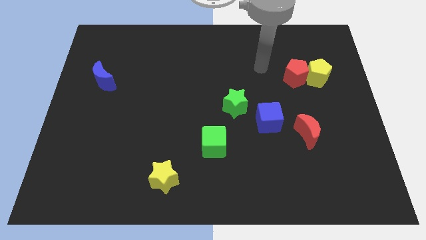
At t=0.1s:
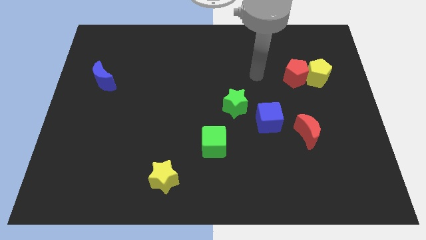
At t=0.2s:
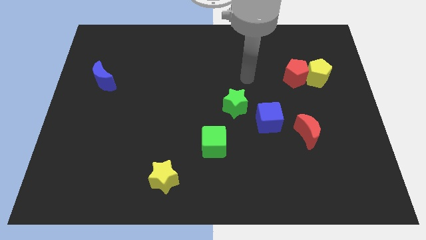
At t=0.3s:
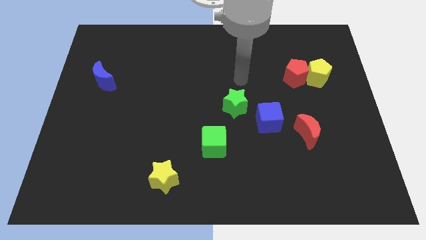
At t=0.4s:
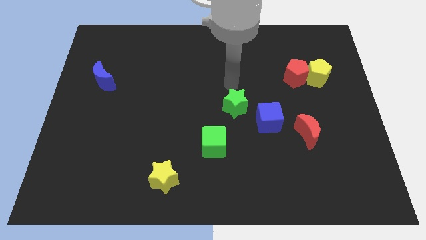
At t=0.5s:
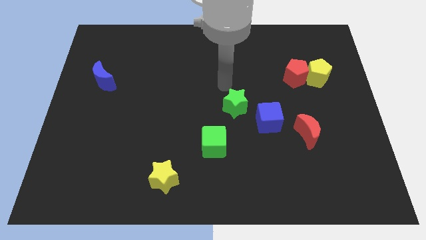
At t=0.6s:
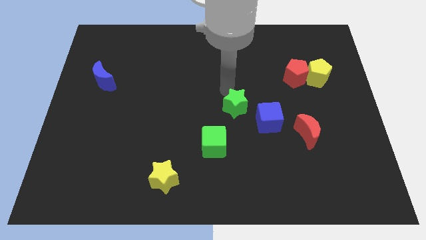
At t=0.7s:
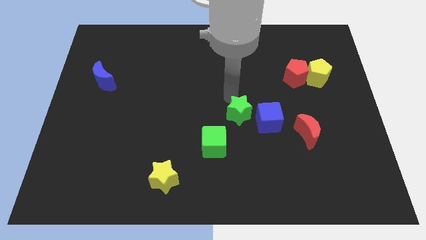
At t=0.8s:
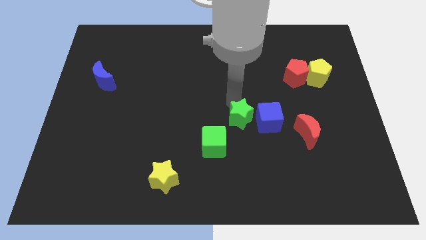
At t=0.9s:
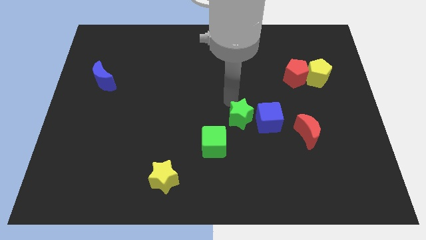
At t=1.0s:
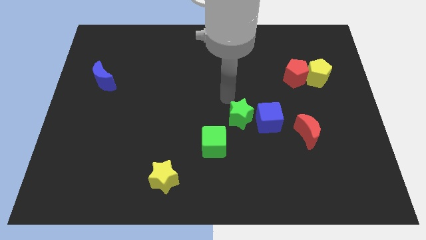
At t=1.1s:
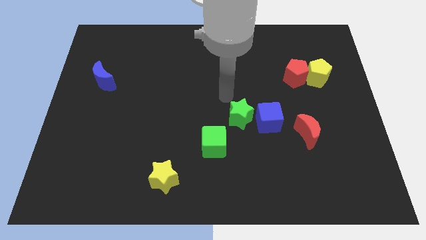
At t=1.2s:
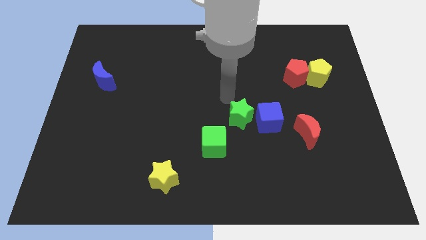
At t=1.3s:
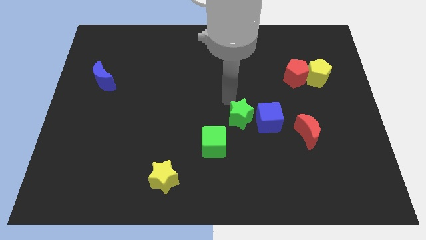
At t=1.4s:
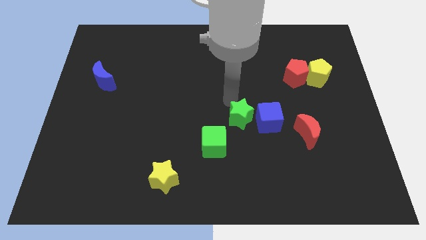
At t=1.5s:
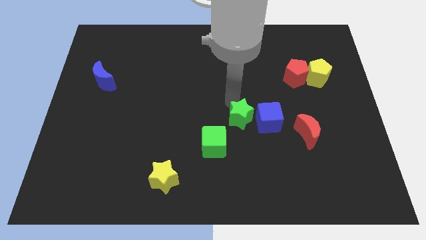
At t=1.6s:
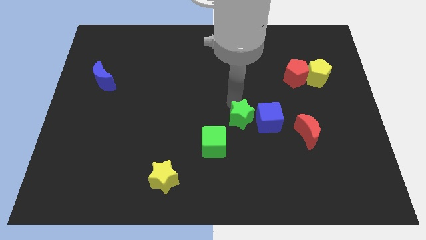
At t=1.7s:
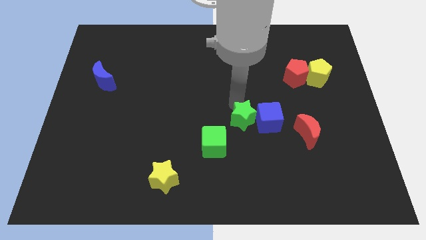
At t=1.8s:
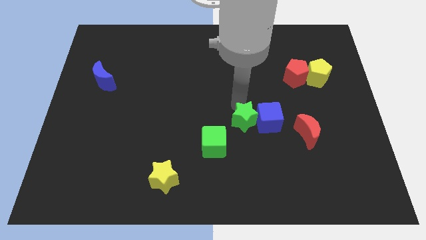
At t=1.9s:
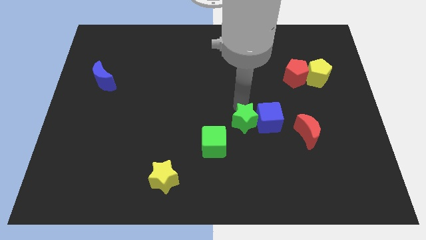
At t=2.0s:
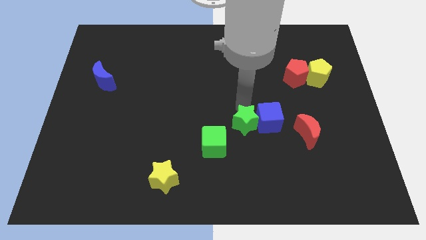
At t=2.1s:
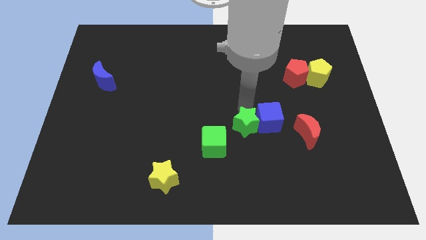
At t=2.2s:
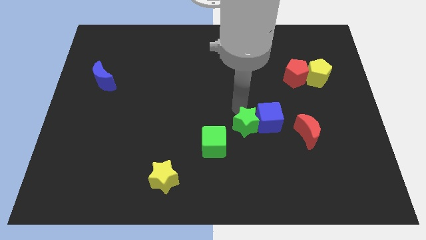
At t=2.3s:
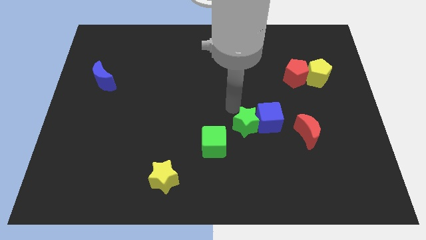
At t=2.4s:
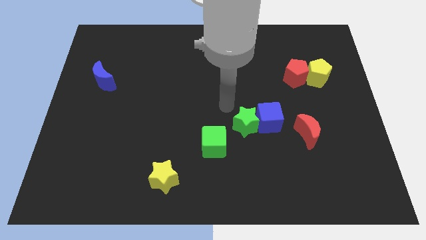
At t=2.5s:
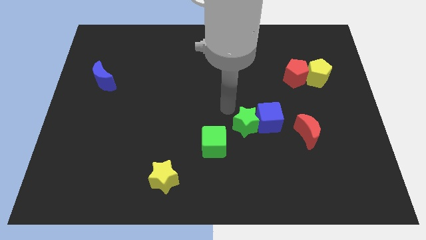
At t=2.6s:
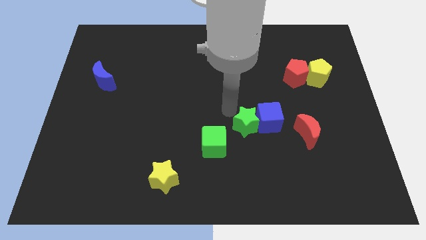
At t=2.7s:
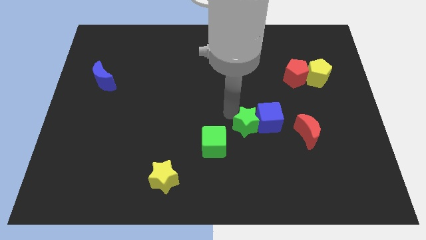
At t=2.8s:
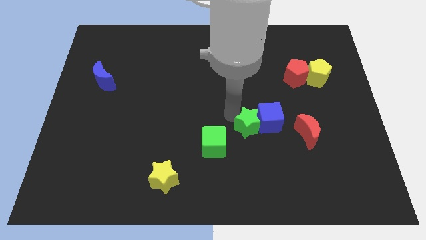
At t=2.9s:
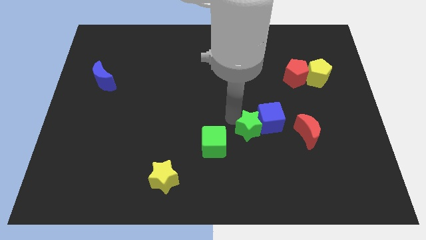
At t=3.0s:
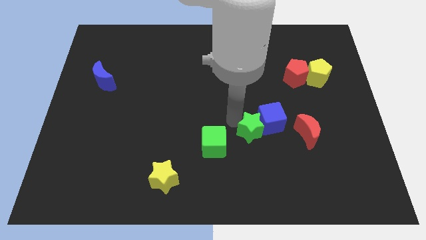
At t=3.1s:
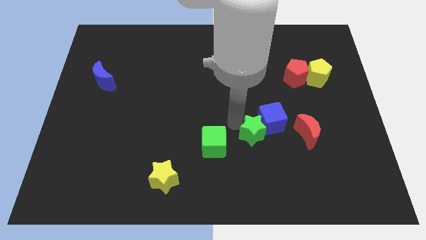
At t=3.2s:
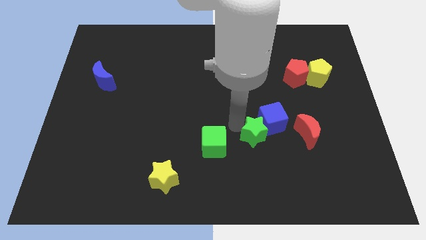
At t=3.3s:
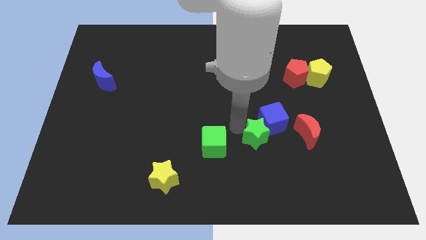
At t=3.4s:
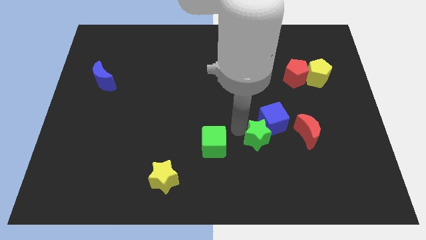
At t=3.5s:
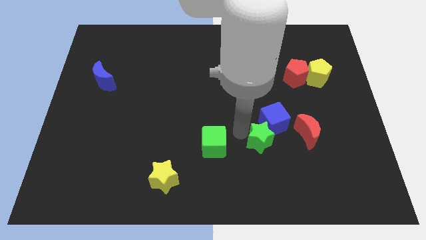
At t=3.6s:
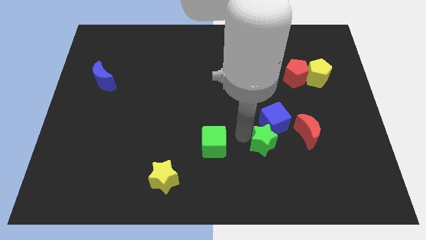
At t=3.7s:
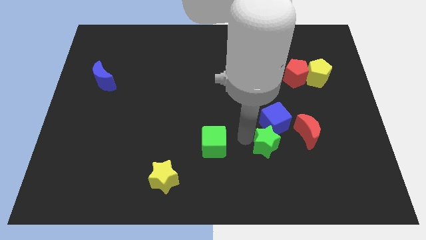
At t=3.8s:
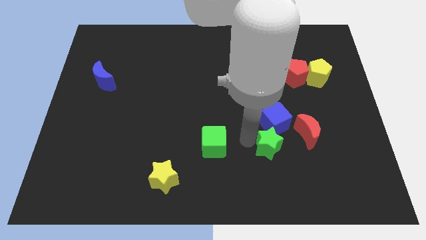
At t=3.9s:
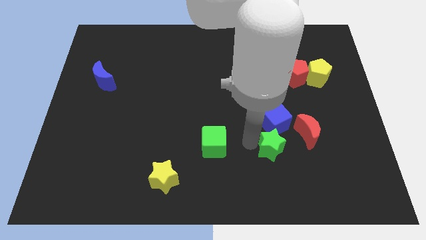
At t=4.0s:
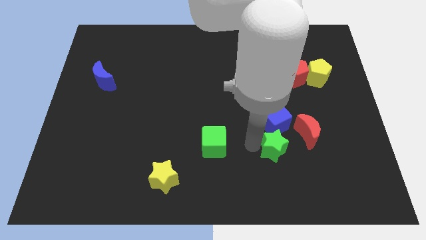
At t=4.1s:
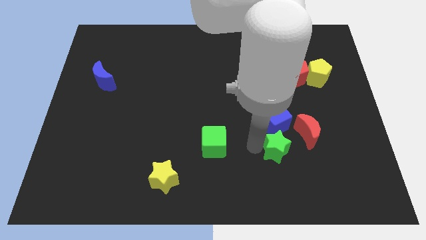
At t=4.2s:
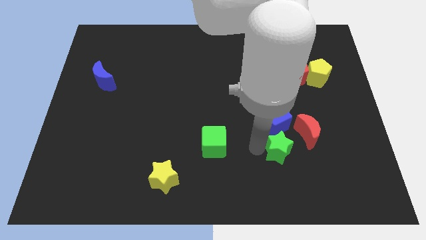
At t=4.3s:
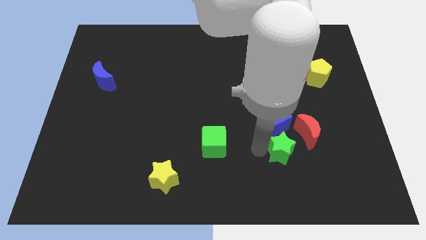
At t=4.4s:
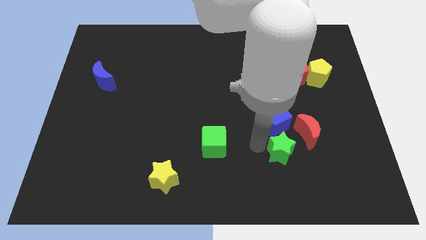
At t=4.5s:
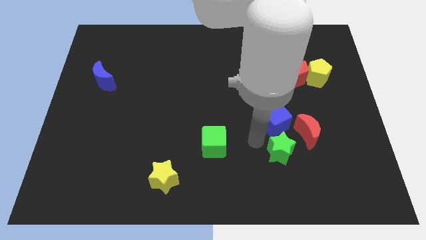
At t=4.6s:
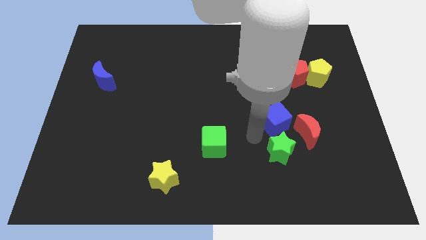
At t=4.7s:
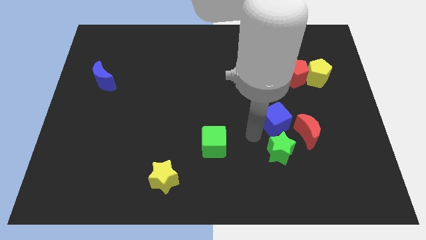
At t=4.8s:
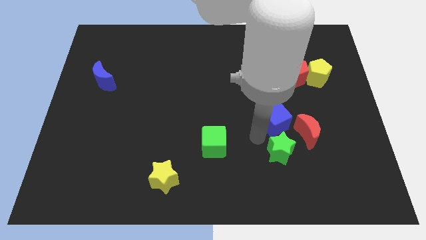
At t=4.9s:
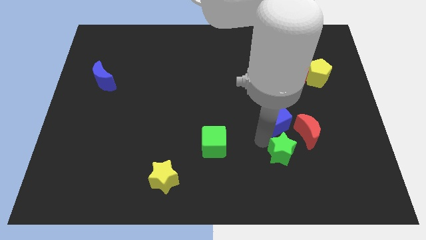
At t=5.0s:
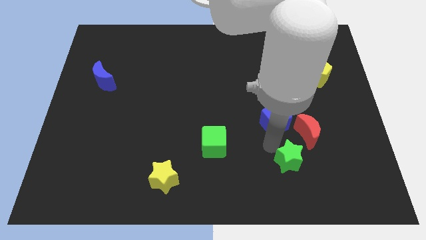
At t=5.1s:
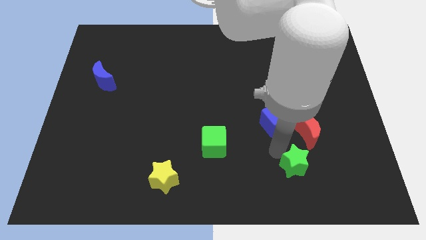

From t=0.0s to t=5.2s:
slide the green star to the bottom side of the red moon

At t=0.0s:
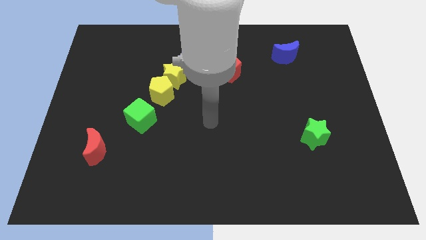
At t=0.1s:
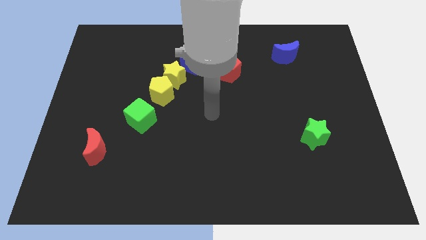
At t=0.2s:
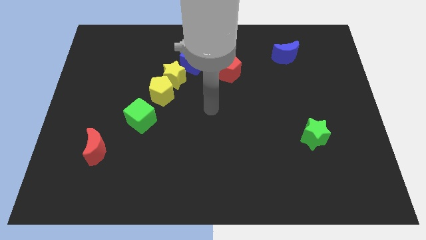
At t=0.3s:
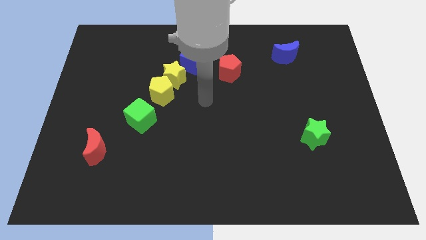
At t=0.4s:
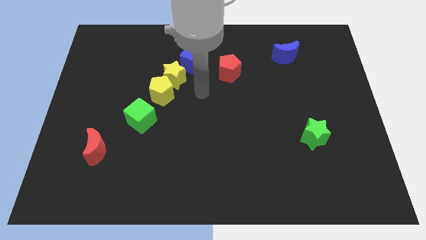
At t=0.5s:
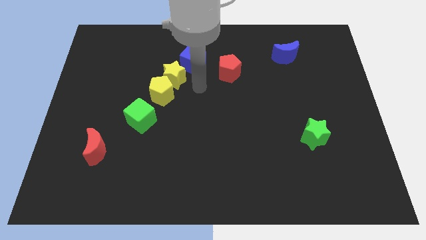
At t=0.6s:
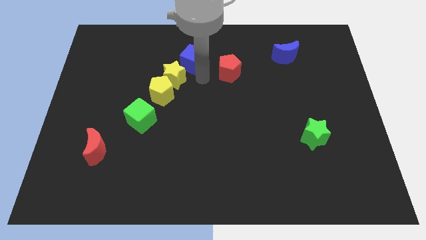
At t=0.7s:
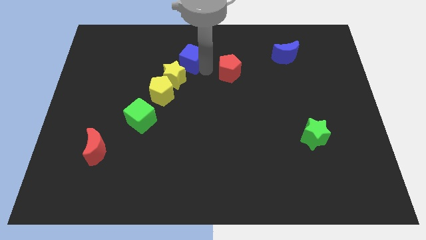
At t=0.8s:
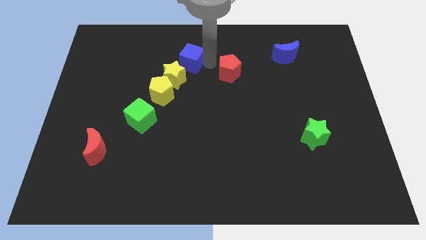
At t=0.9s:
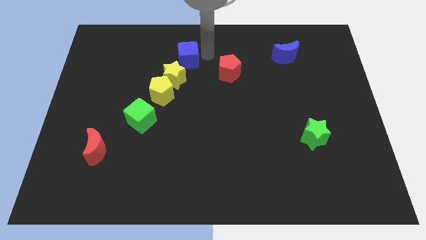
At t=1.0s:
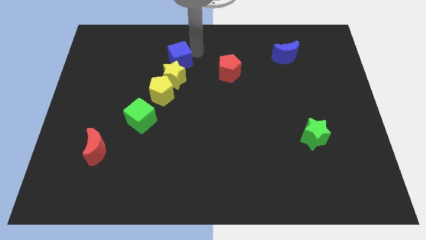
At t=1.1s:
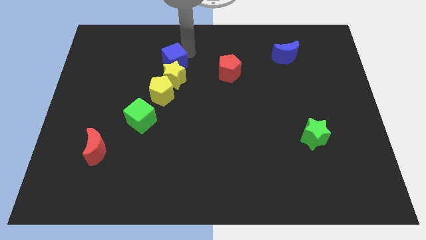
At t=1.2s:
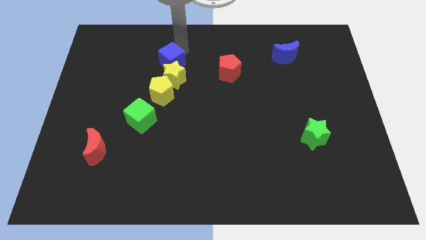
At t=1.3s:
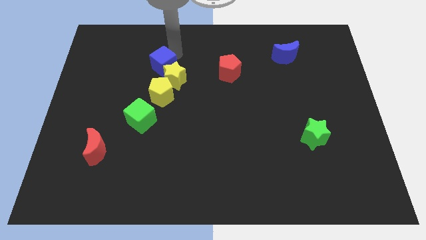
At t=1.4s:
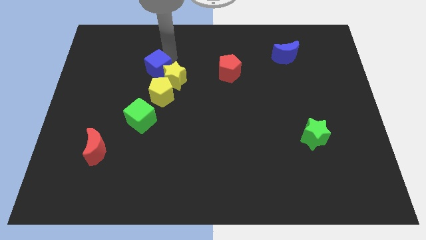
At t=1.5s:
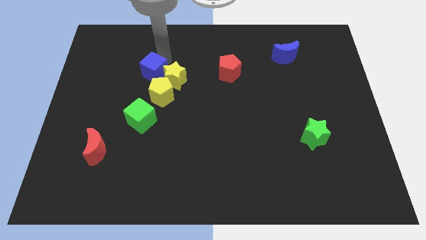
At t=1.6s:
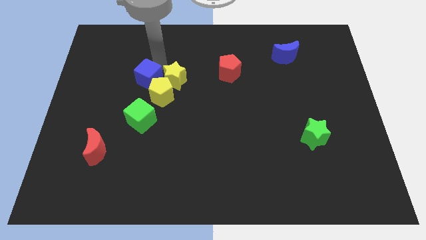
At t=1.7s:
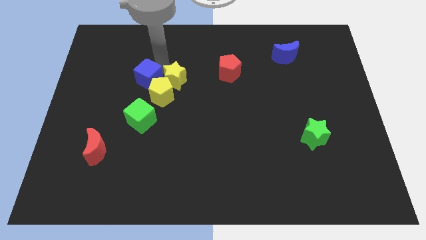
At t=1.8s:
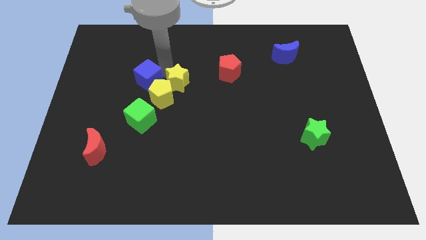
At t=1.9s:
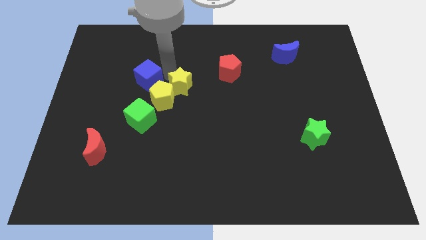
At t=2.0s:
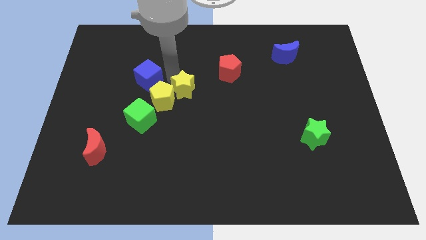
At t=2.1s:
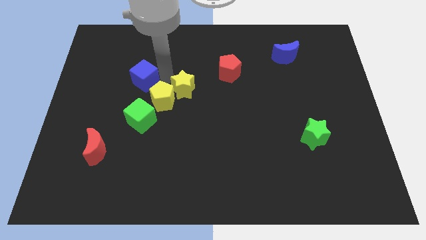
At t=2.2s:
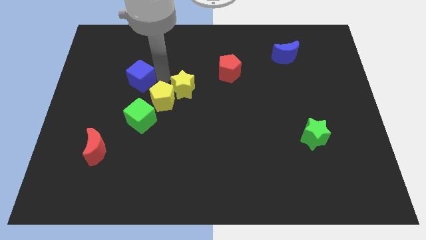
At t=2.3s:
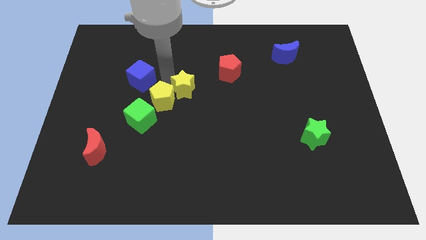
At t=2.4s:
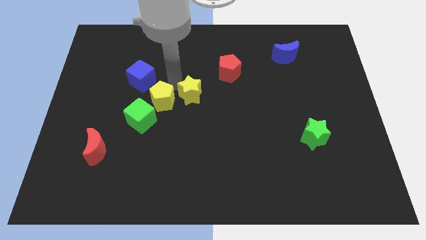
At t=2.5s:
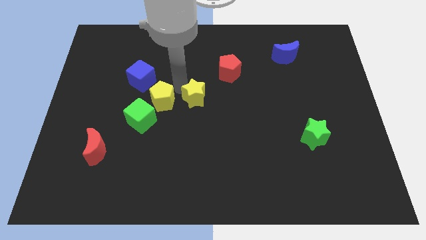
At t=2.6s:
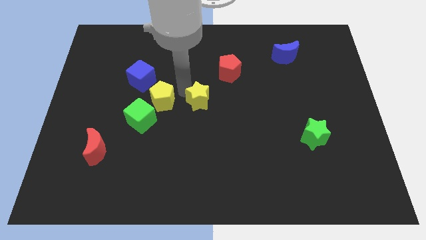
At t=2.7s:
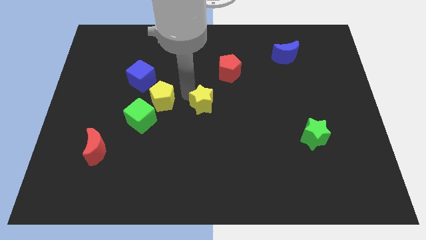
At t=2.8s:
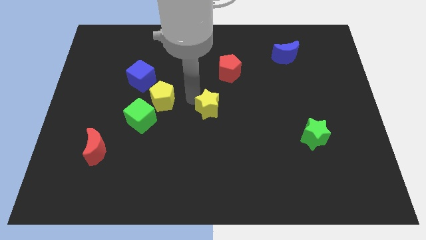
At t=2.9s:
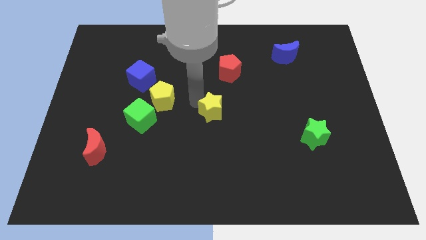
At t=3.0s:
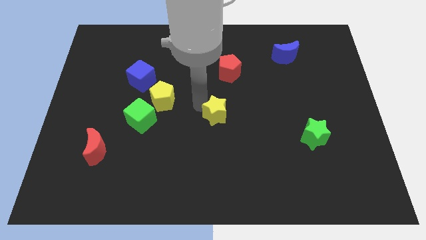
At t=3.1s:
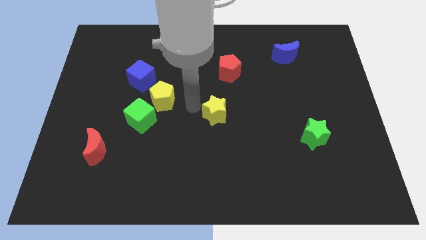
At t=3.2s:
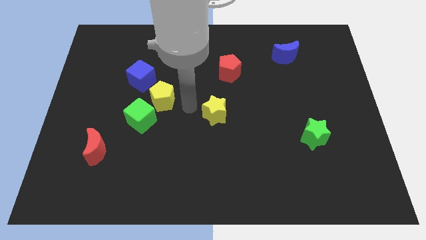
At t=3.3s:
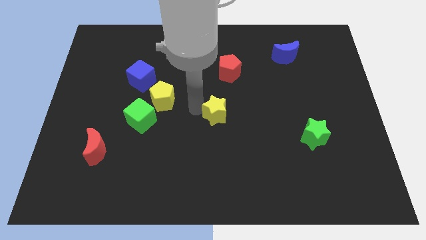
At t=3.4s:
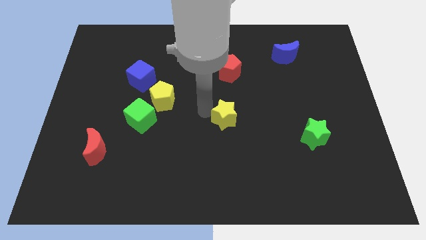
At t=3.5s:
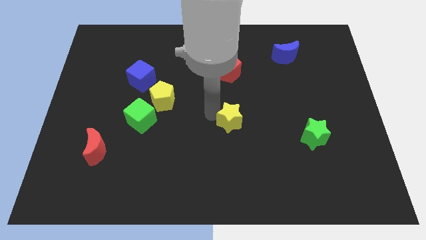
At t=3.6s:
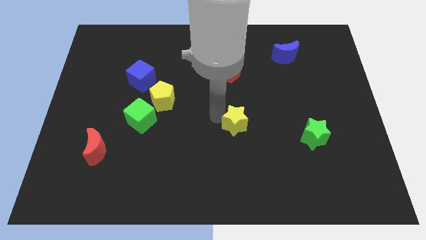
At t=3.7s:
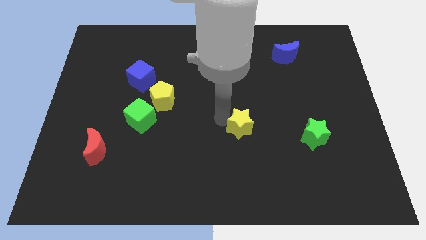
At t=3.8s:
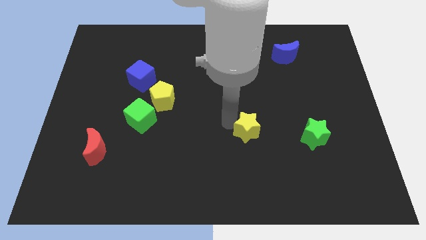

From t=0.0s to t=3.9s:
slide the yellow star just left of the green star
